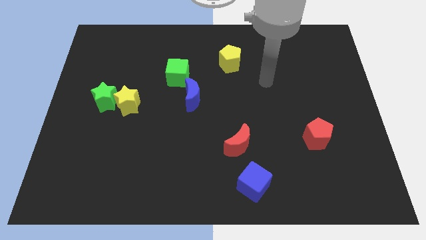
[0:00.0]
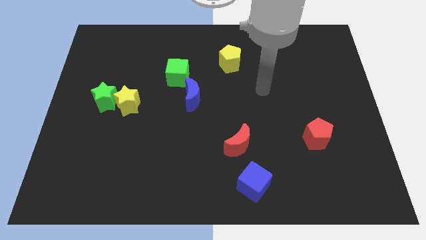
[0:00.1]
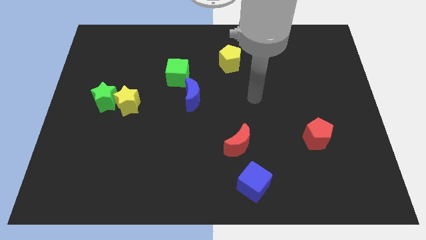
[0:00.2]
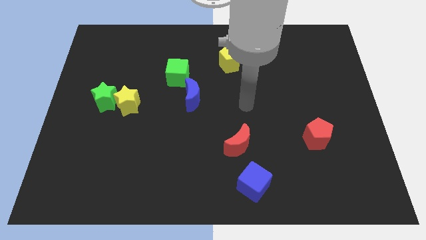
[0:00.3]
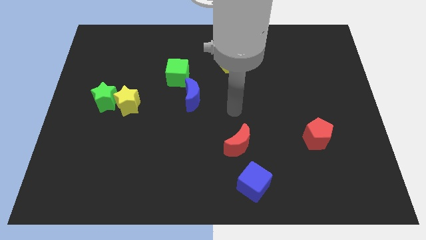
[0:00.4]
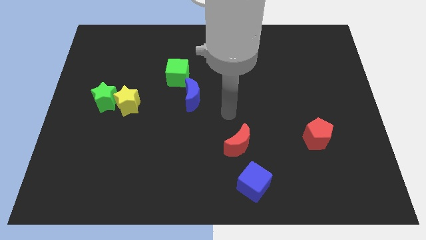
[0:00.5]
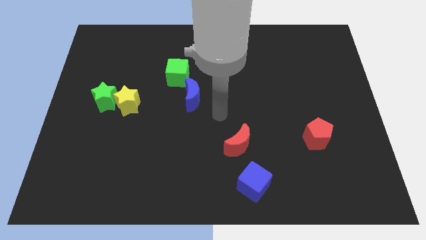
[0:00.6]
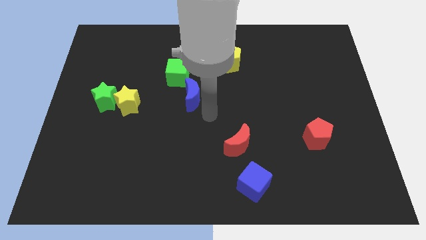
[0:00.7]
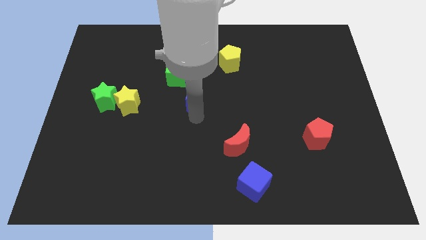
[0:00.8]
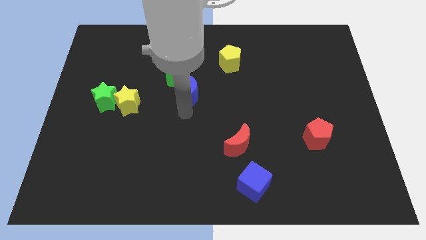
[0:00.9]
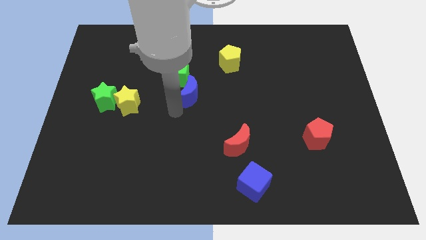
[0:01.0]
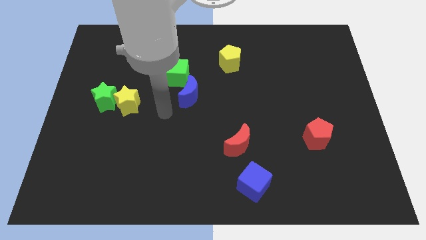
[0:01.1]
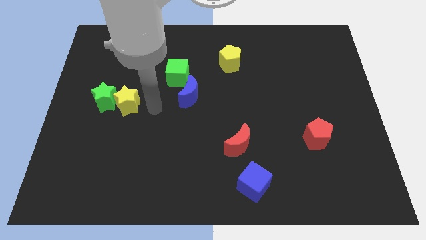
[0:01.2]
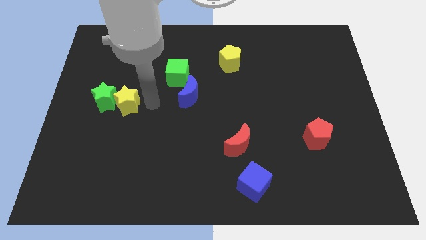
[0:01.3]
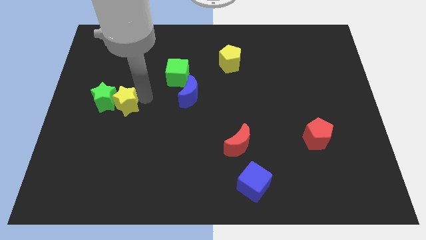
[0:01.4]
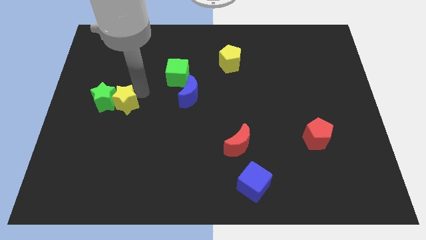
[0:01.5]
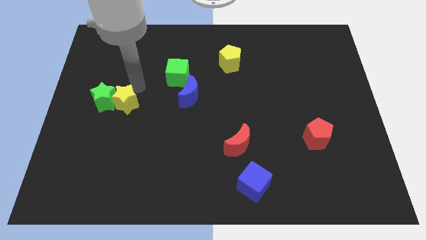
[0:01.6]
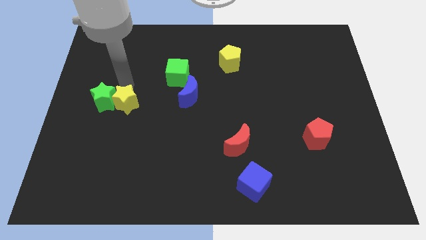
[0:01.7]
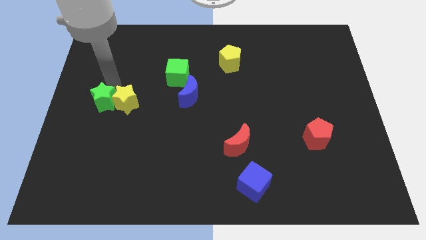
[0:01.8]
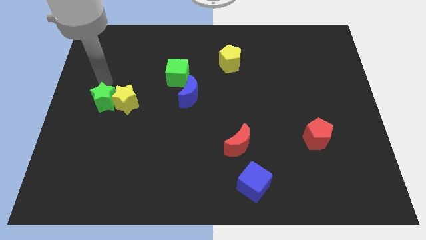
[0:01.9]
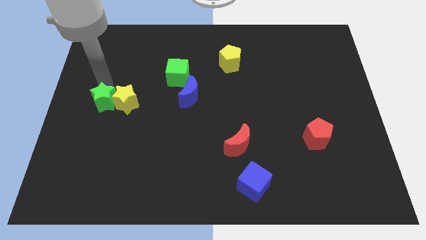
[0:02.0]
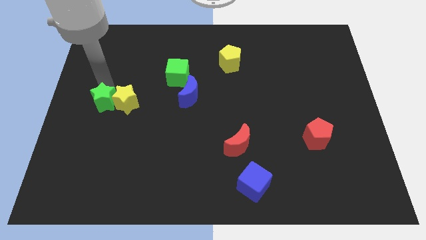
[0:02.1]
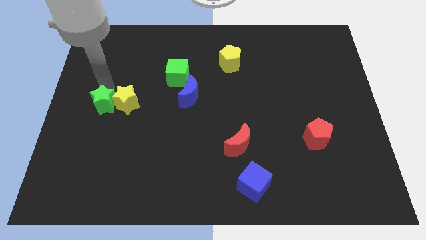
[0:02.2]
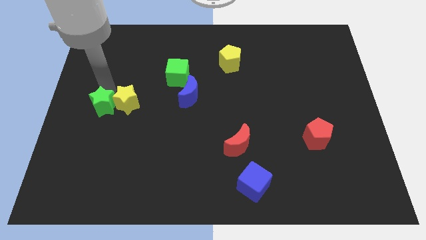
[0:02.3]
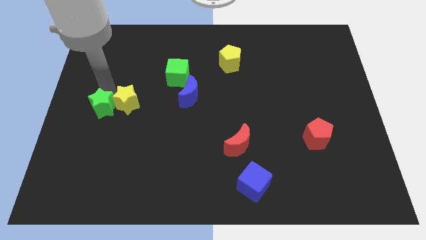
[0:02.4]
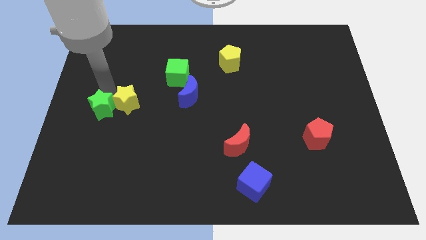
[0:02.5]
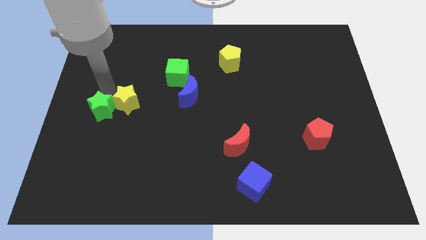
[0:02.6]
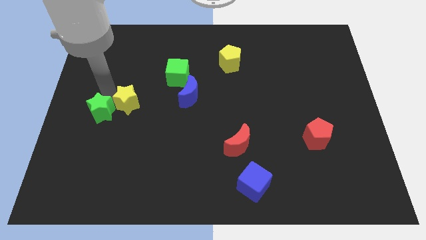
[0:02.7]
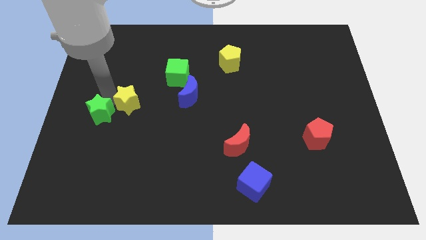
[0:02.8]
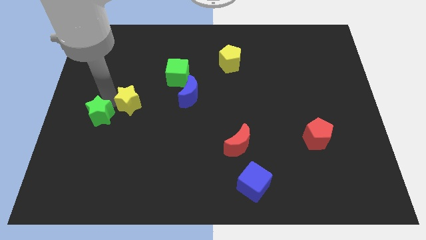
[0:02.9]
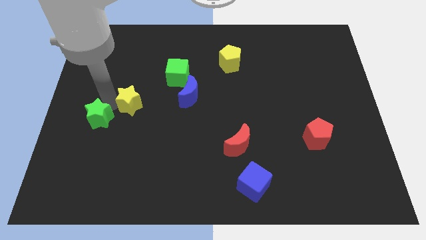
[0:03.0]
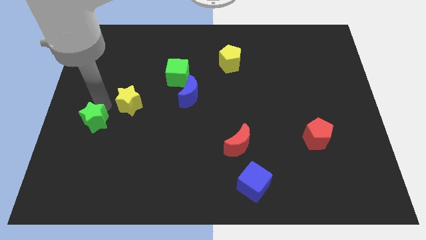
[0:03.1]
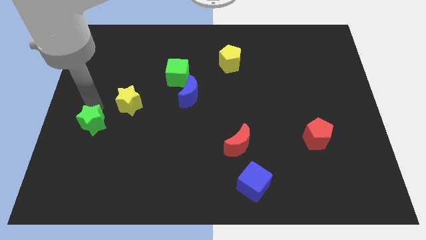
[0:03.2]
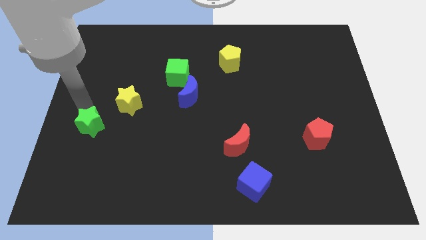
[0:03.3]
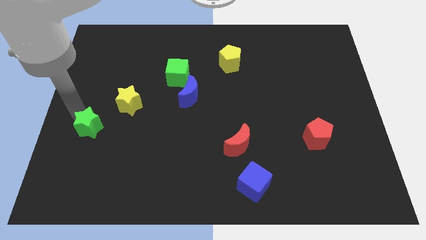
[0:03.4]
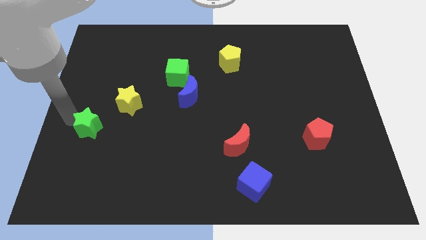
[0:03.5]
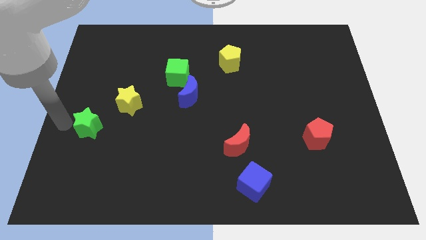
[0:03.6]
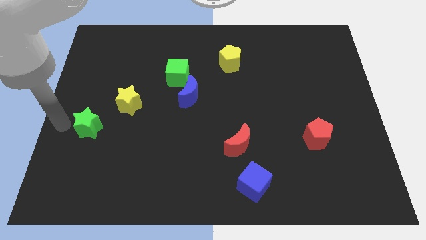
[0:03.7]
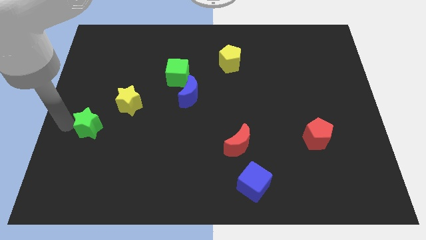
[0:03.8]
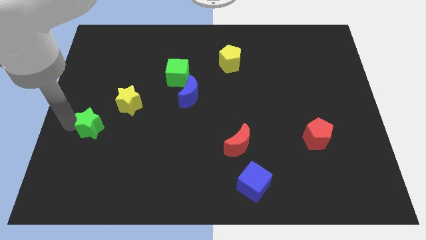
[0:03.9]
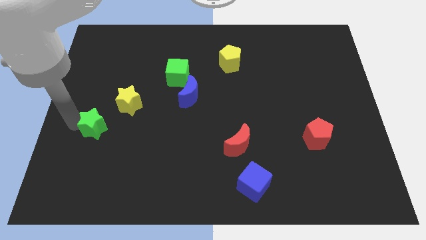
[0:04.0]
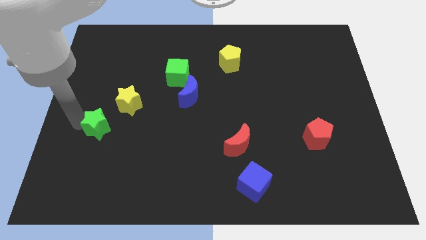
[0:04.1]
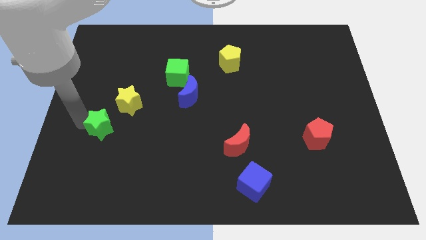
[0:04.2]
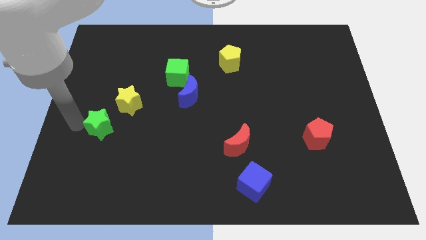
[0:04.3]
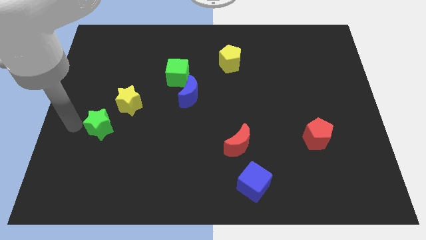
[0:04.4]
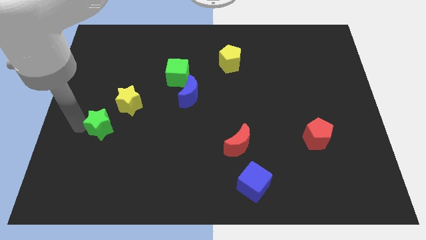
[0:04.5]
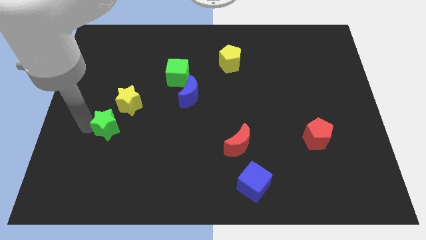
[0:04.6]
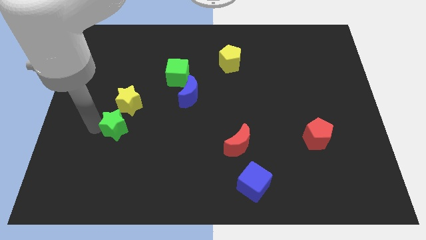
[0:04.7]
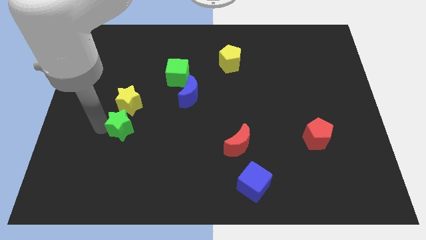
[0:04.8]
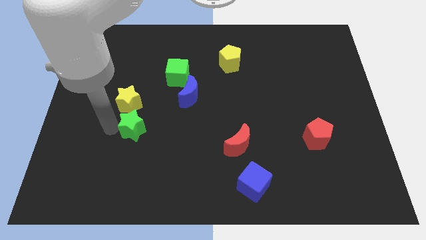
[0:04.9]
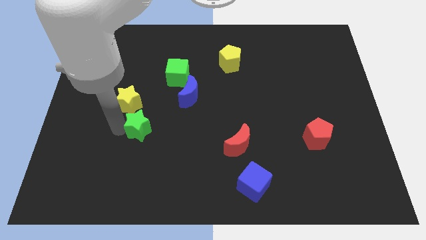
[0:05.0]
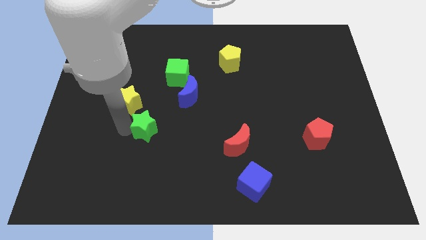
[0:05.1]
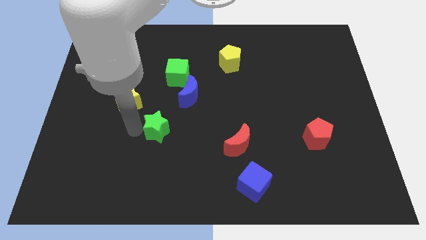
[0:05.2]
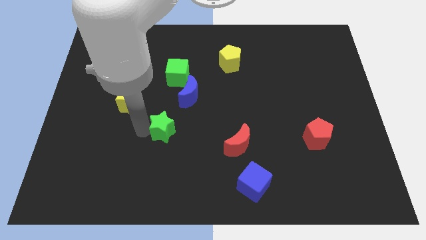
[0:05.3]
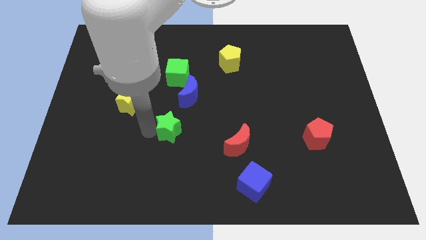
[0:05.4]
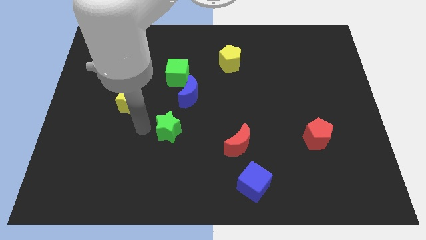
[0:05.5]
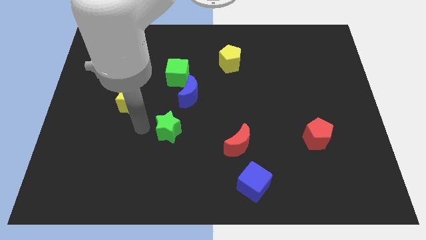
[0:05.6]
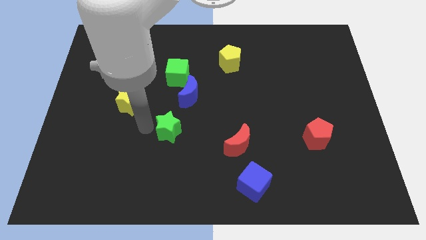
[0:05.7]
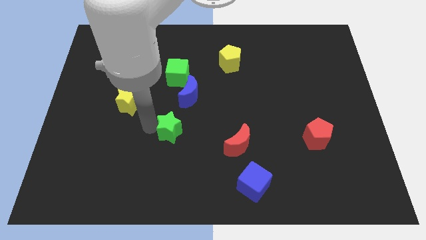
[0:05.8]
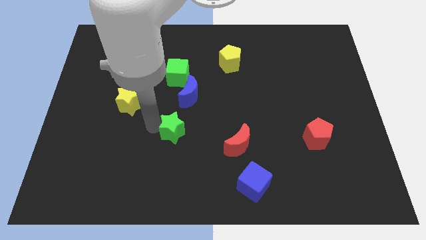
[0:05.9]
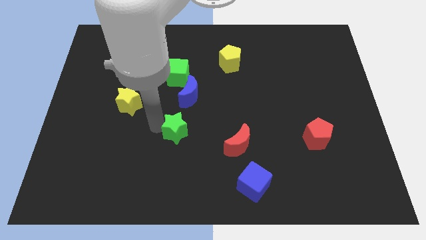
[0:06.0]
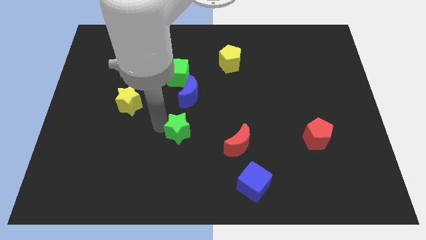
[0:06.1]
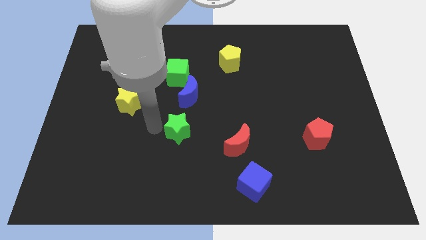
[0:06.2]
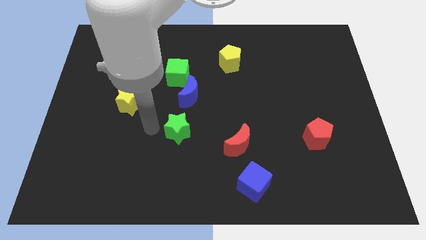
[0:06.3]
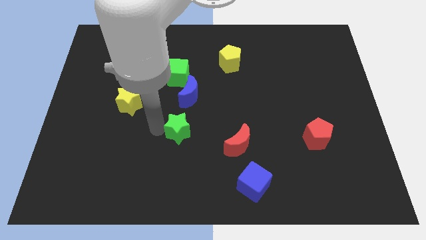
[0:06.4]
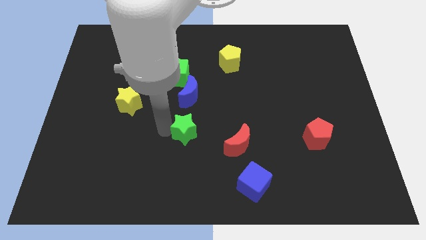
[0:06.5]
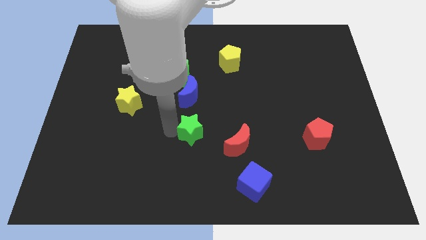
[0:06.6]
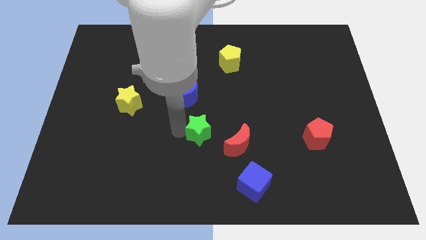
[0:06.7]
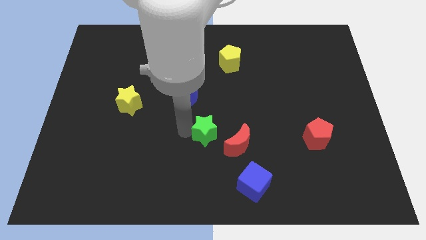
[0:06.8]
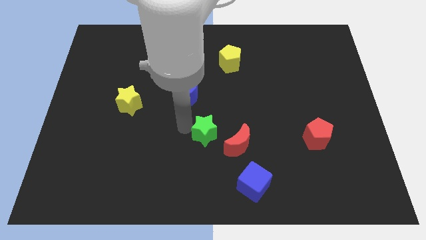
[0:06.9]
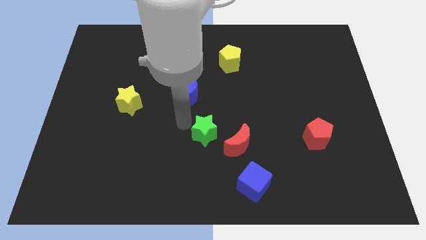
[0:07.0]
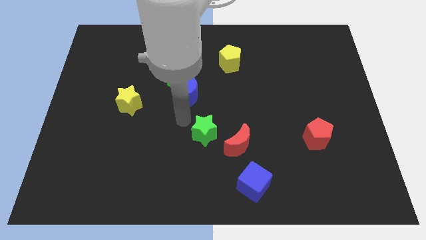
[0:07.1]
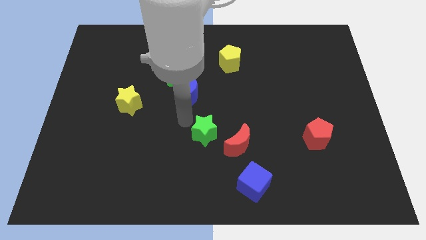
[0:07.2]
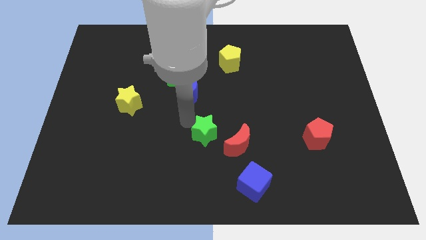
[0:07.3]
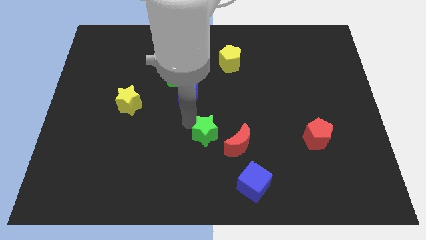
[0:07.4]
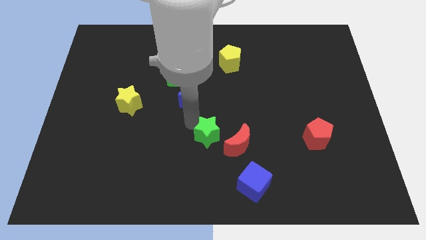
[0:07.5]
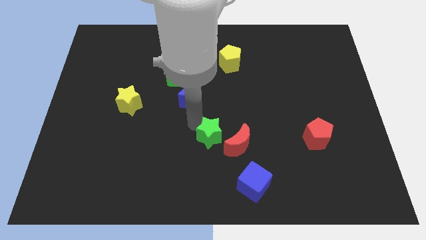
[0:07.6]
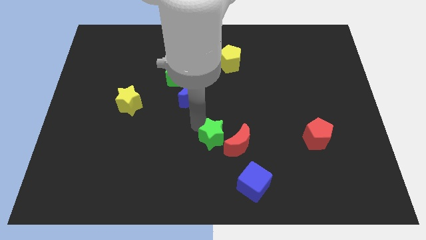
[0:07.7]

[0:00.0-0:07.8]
push the green star to the red moon
